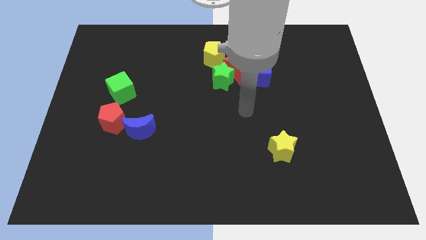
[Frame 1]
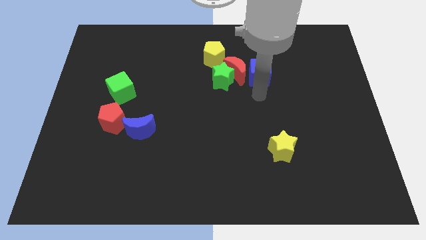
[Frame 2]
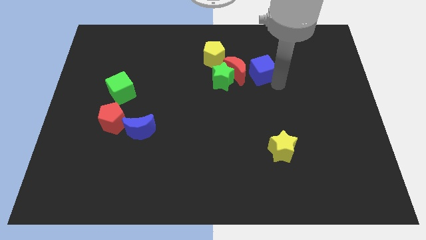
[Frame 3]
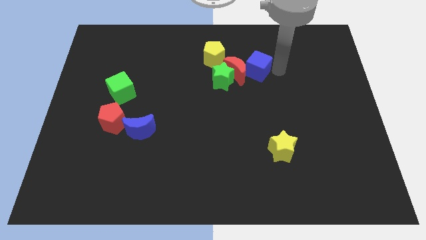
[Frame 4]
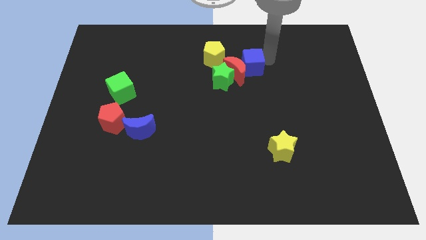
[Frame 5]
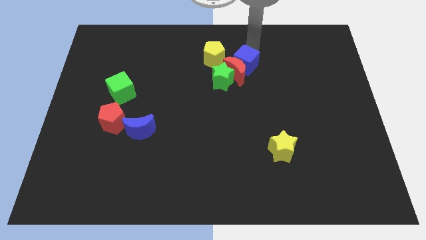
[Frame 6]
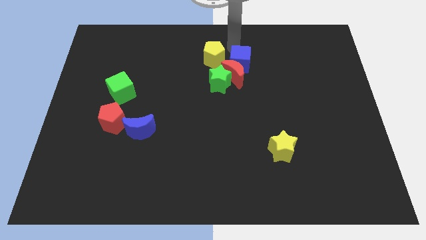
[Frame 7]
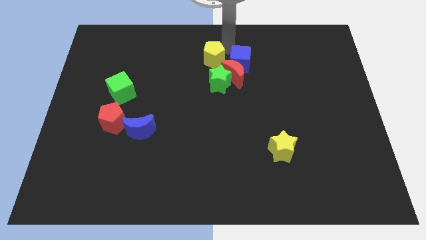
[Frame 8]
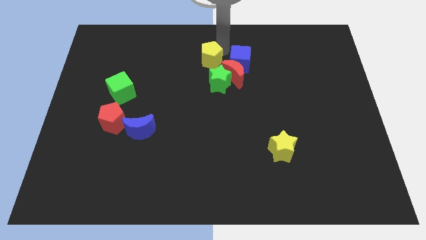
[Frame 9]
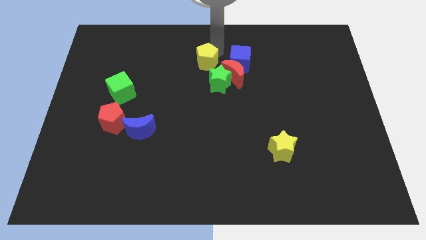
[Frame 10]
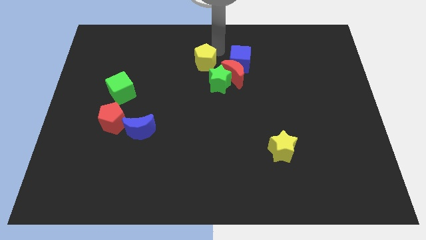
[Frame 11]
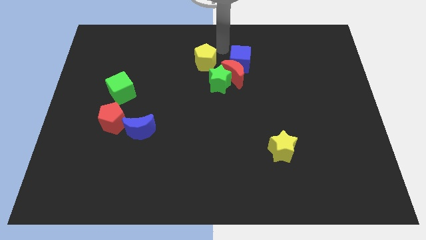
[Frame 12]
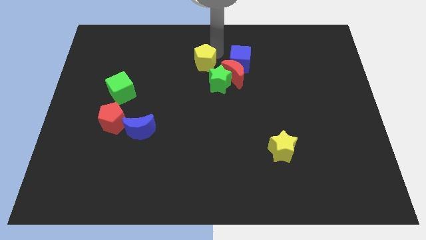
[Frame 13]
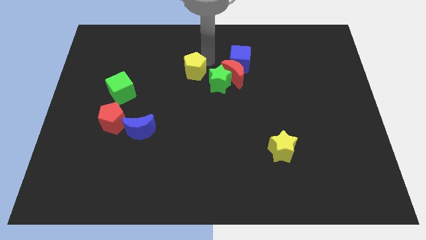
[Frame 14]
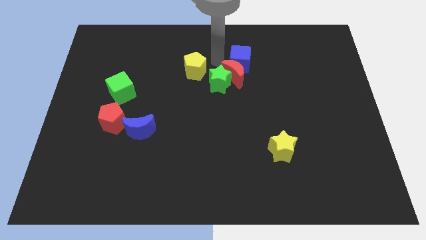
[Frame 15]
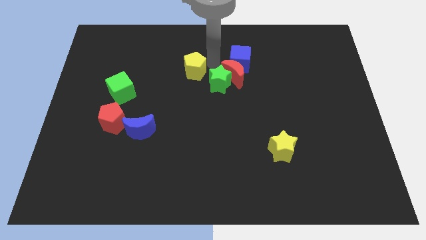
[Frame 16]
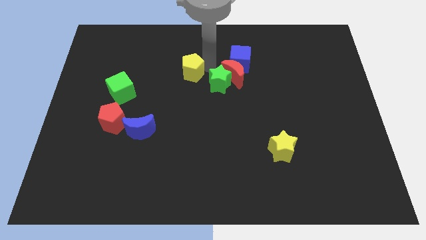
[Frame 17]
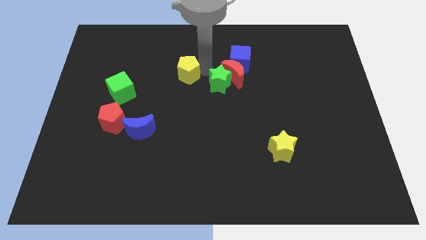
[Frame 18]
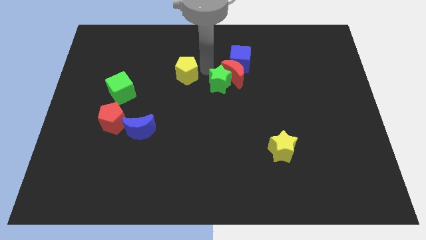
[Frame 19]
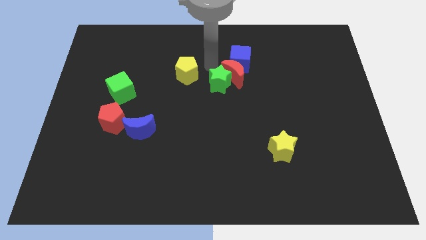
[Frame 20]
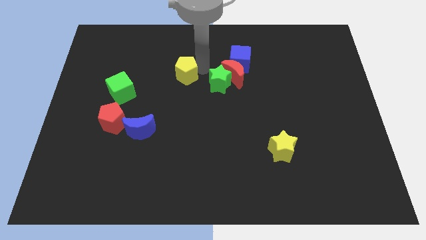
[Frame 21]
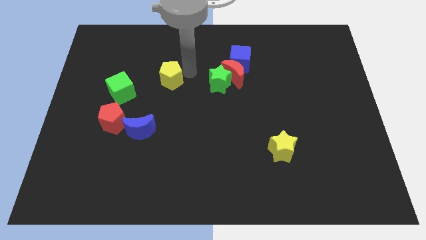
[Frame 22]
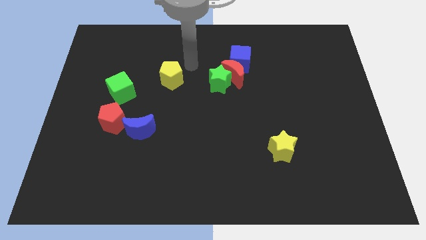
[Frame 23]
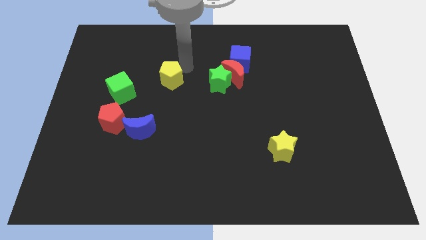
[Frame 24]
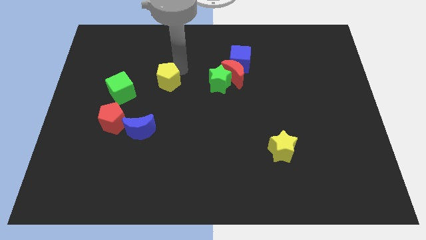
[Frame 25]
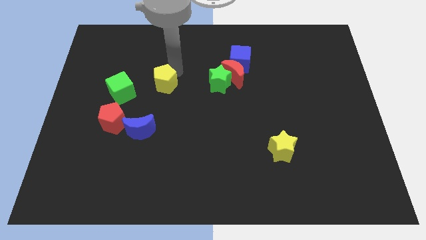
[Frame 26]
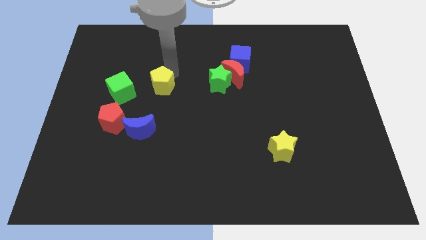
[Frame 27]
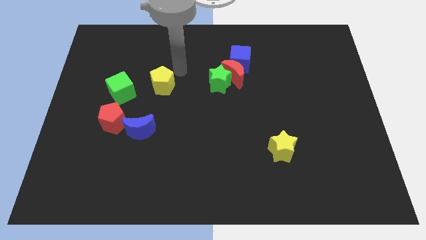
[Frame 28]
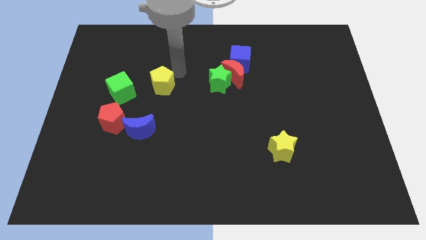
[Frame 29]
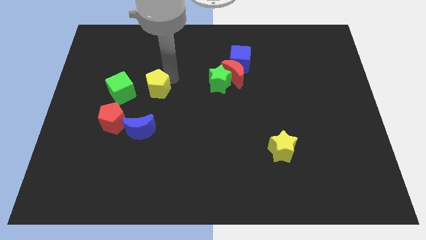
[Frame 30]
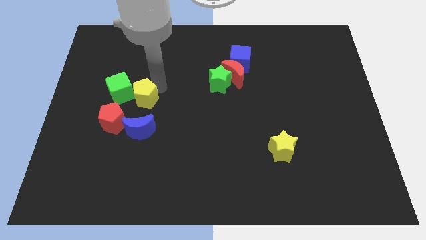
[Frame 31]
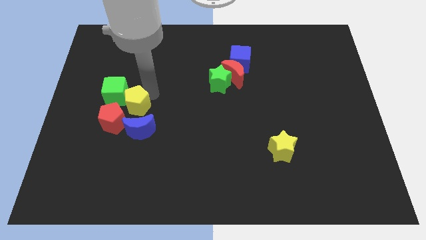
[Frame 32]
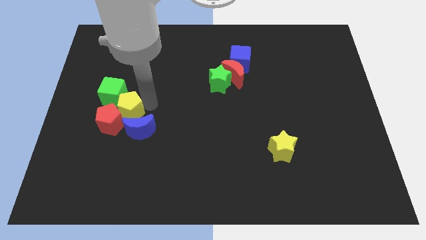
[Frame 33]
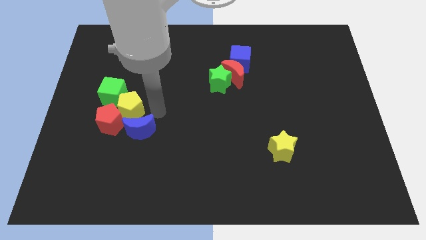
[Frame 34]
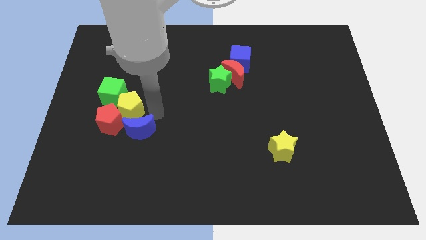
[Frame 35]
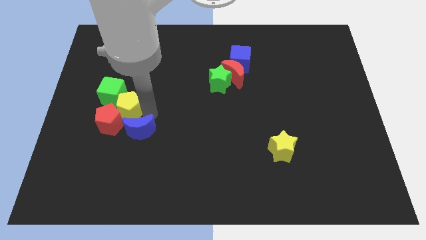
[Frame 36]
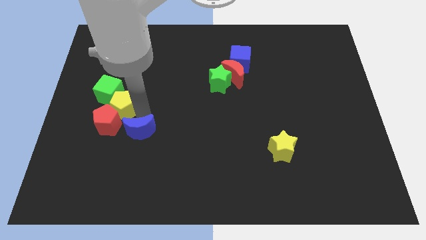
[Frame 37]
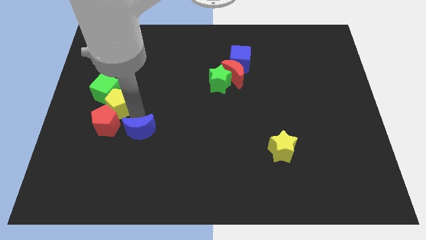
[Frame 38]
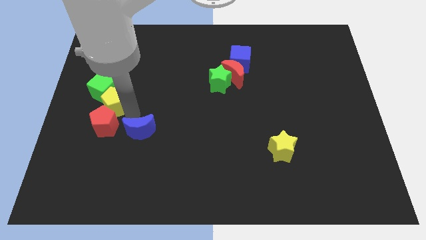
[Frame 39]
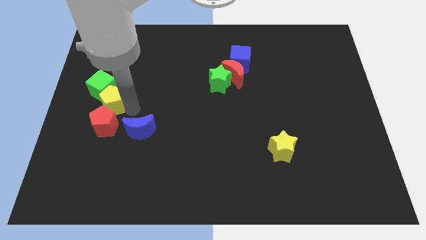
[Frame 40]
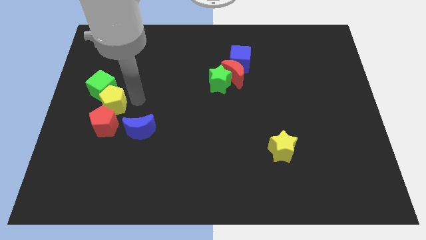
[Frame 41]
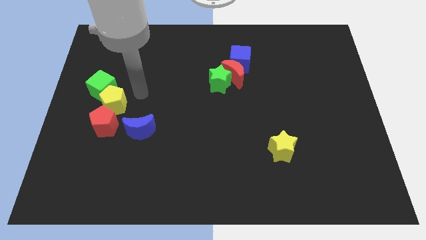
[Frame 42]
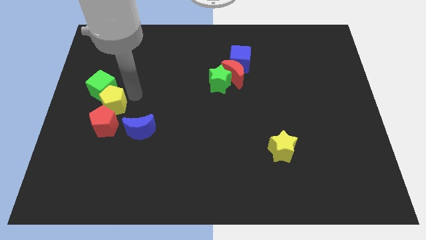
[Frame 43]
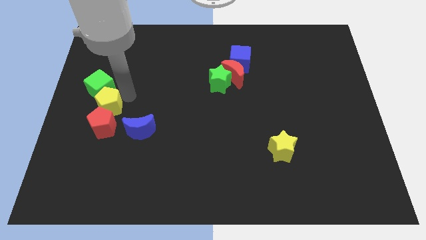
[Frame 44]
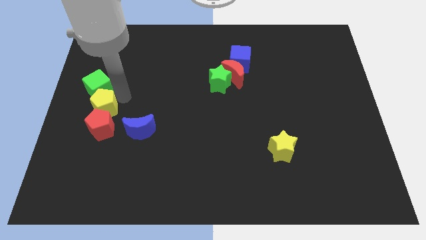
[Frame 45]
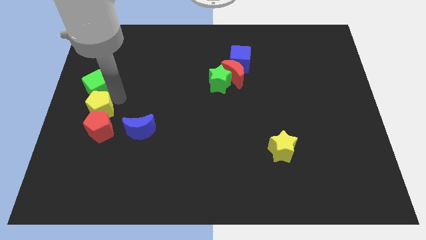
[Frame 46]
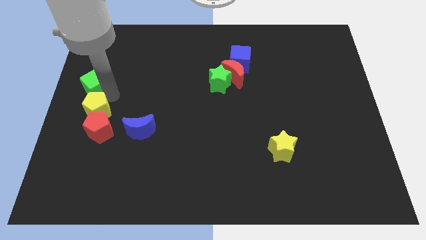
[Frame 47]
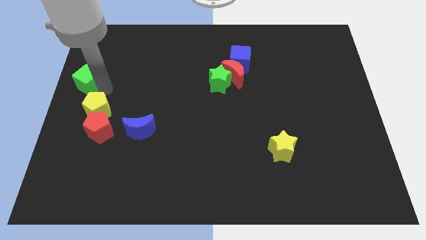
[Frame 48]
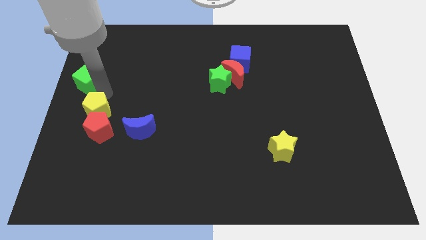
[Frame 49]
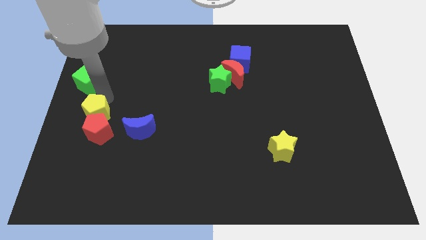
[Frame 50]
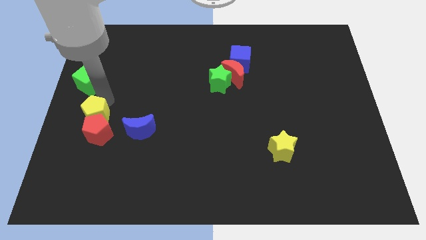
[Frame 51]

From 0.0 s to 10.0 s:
put the yellow pentagon to the left of the blue moon

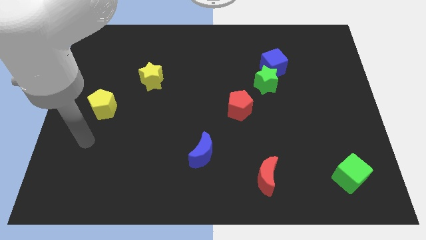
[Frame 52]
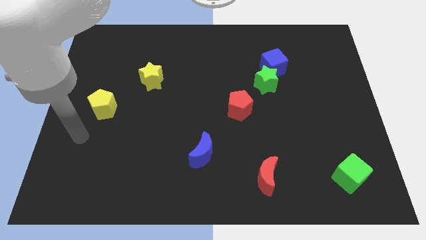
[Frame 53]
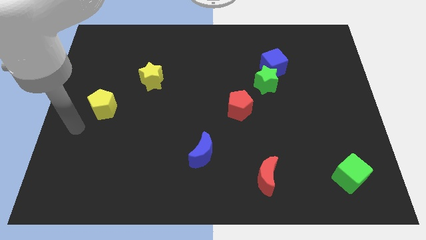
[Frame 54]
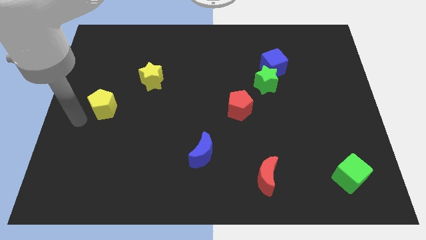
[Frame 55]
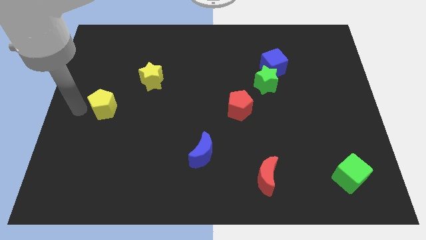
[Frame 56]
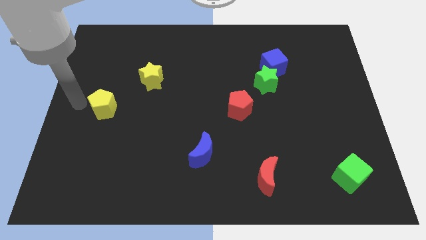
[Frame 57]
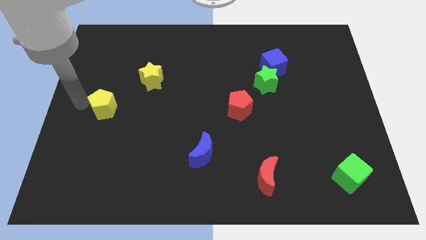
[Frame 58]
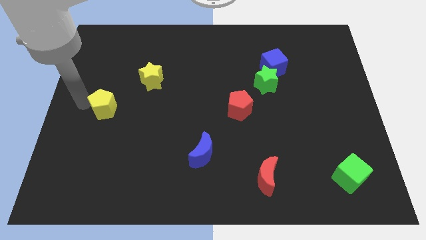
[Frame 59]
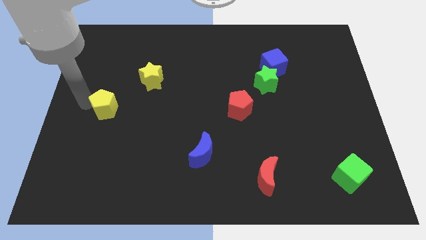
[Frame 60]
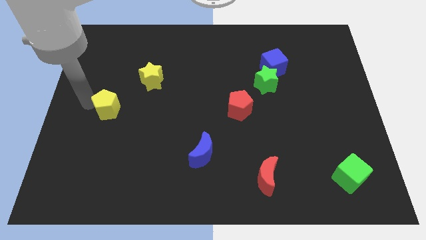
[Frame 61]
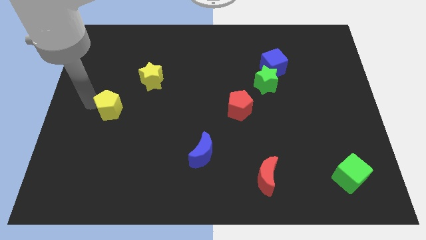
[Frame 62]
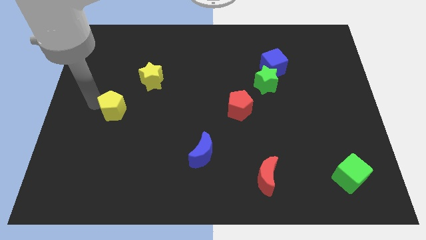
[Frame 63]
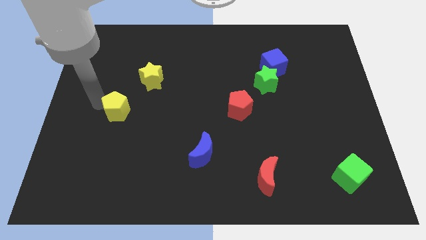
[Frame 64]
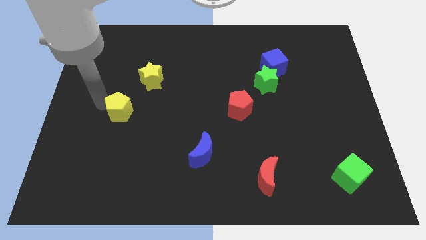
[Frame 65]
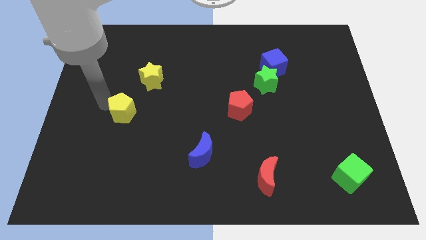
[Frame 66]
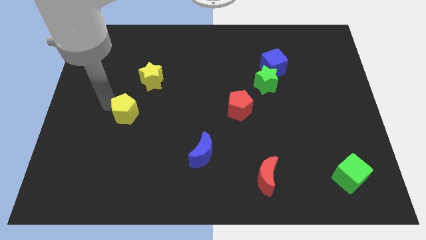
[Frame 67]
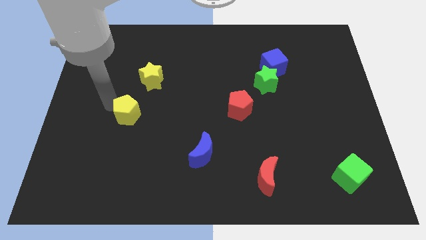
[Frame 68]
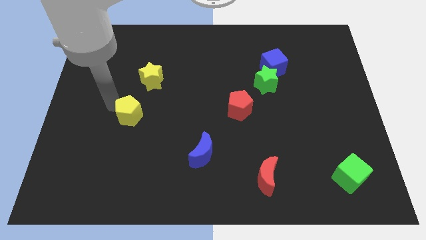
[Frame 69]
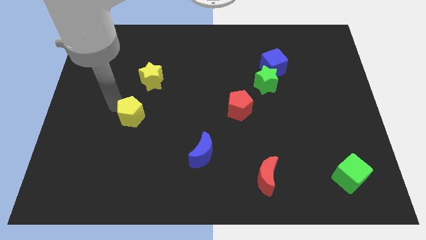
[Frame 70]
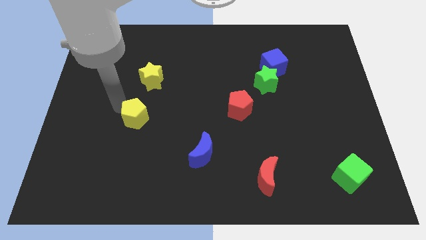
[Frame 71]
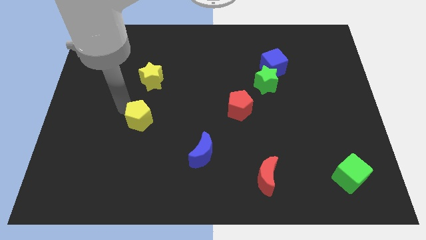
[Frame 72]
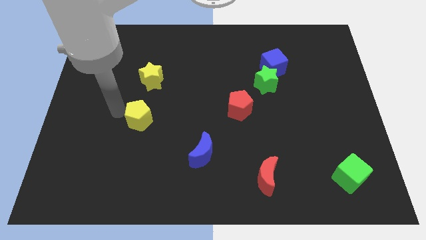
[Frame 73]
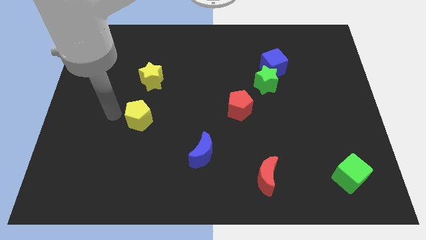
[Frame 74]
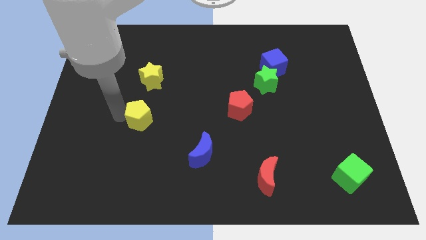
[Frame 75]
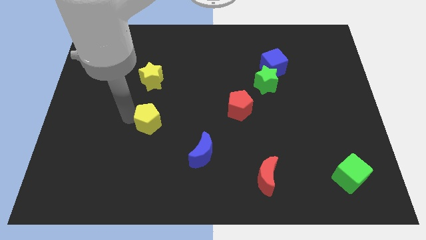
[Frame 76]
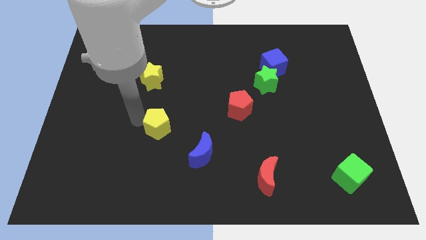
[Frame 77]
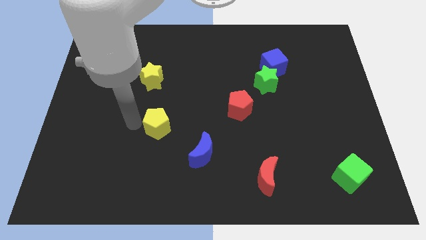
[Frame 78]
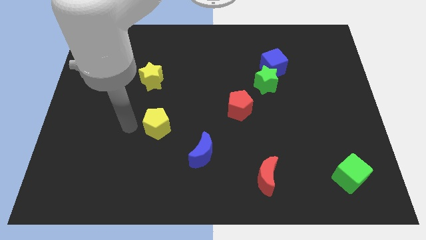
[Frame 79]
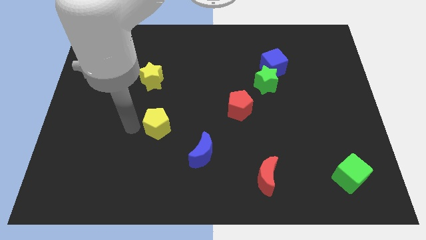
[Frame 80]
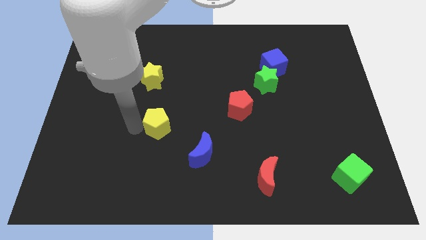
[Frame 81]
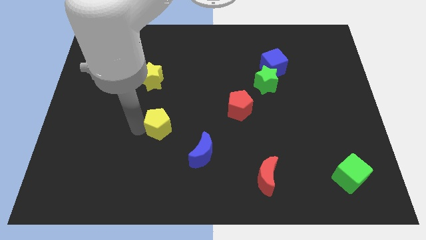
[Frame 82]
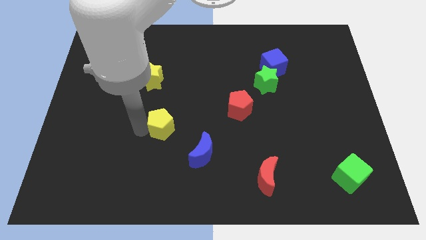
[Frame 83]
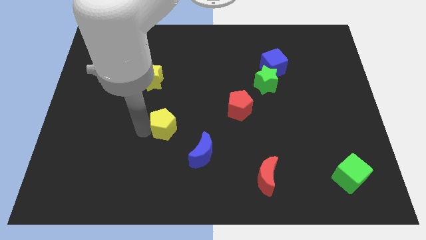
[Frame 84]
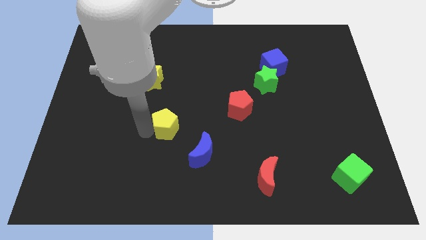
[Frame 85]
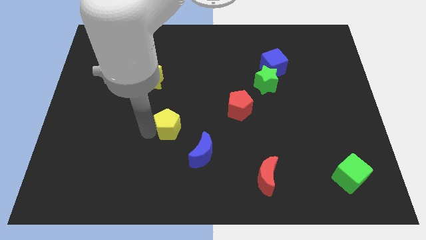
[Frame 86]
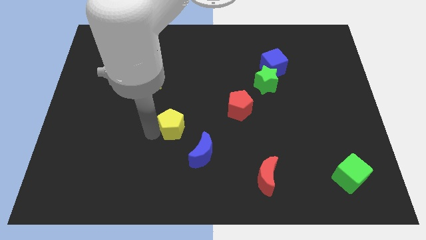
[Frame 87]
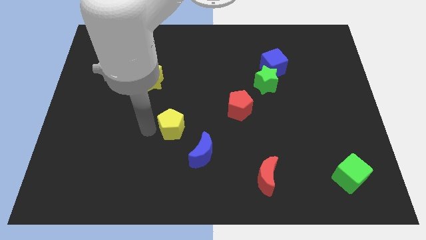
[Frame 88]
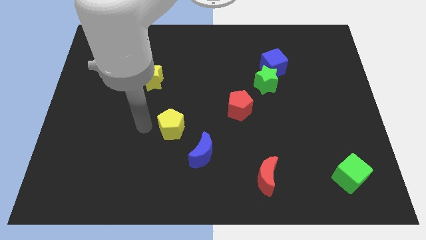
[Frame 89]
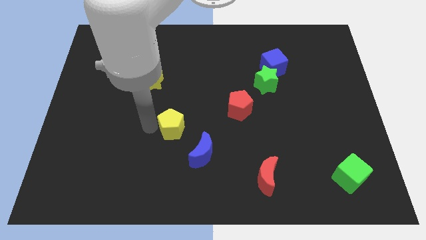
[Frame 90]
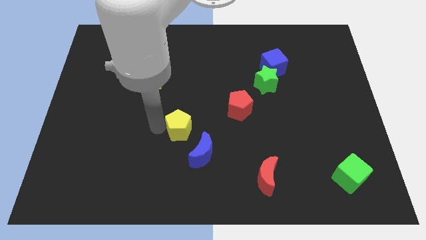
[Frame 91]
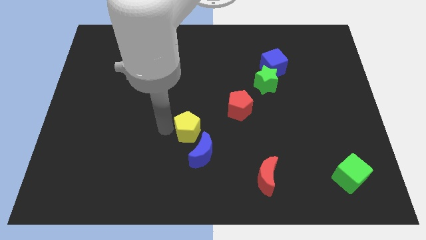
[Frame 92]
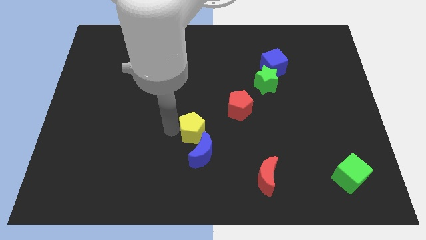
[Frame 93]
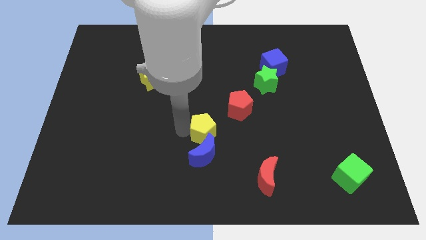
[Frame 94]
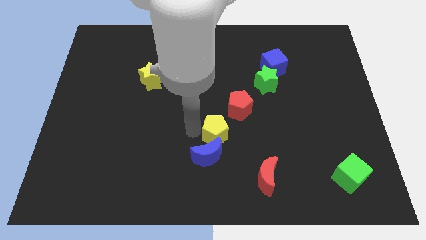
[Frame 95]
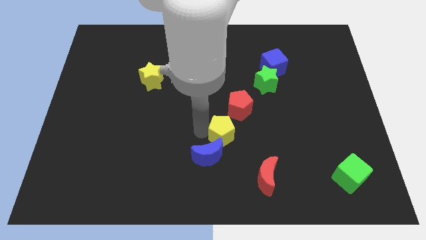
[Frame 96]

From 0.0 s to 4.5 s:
push the yellow pentagon to the bottom of the red pentagon
